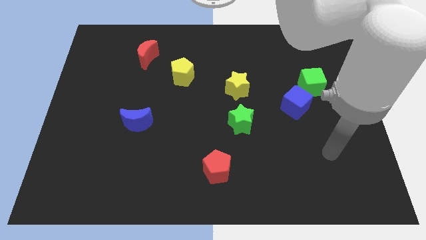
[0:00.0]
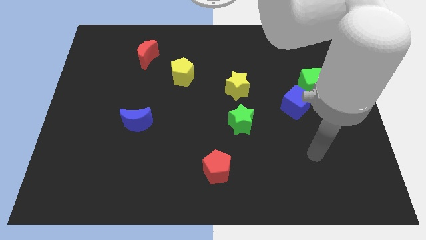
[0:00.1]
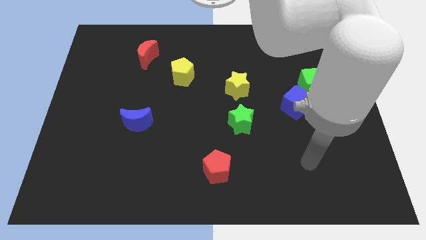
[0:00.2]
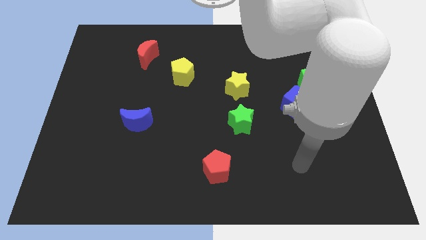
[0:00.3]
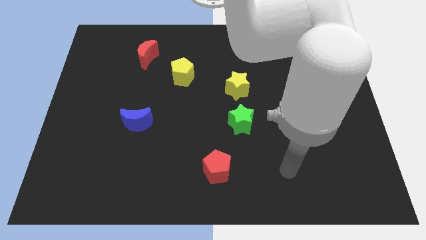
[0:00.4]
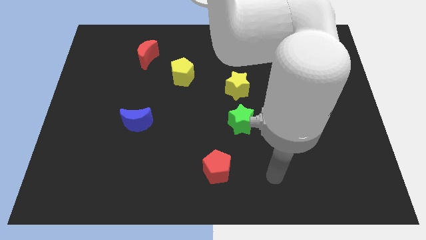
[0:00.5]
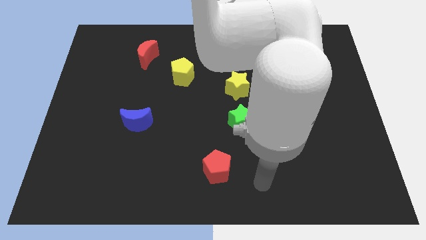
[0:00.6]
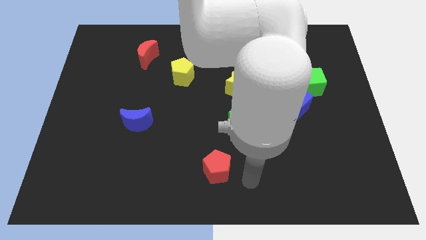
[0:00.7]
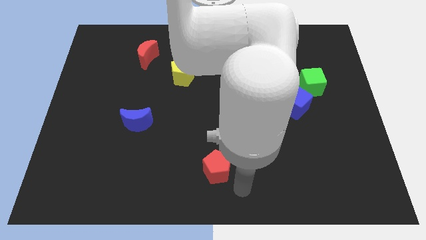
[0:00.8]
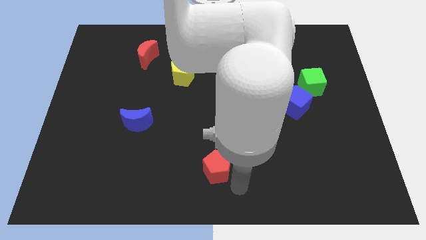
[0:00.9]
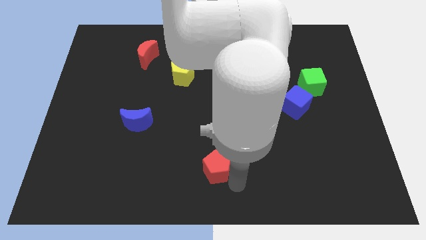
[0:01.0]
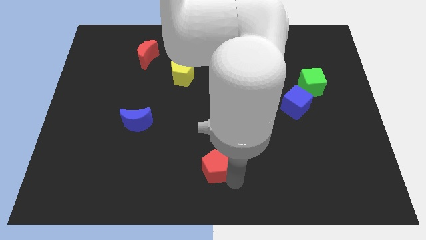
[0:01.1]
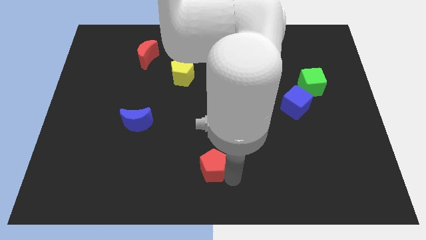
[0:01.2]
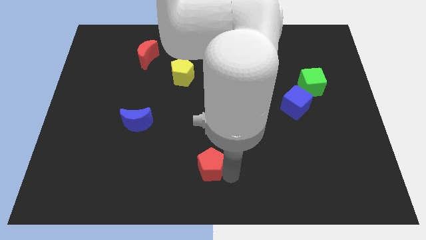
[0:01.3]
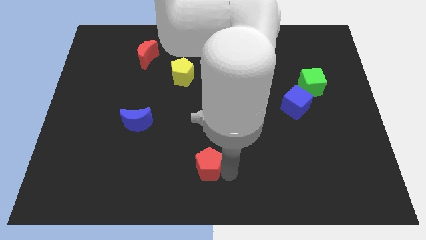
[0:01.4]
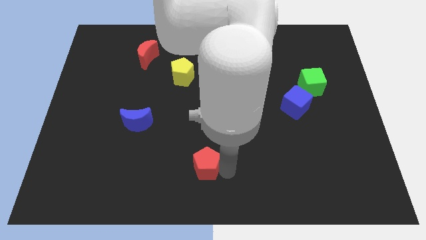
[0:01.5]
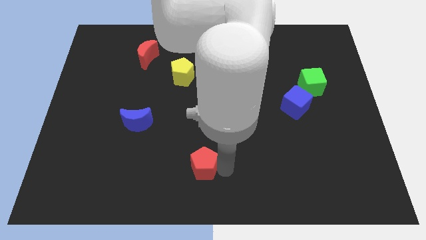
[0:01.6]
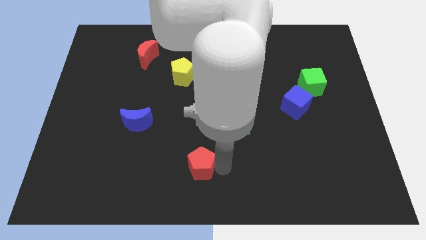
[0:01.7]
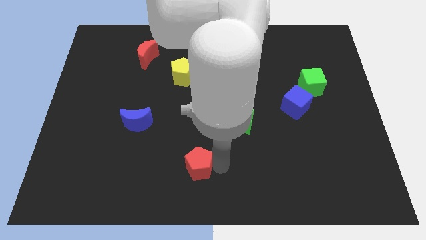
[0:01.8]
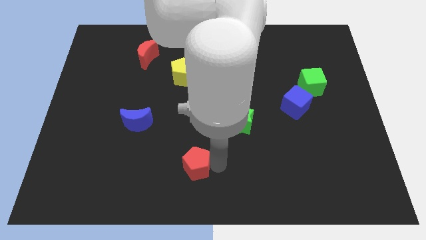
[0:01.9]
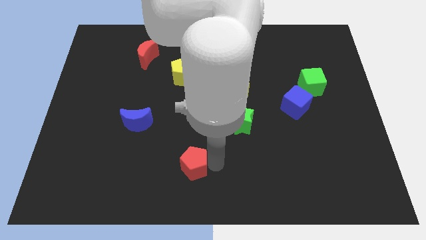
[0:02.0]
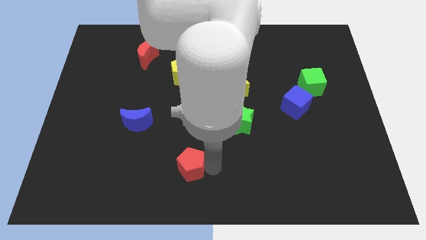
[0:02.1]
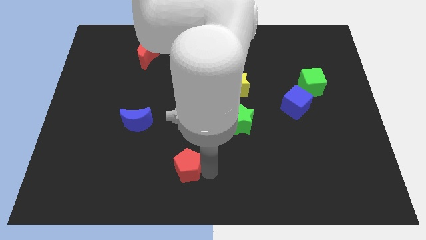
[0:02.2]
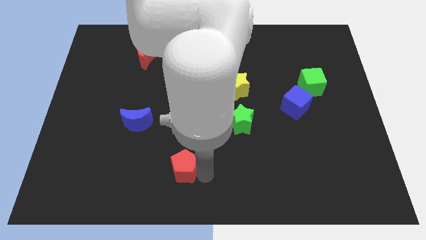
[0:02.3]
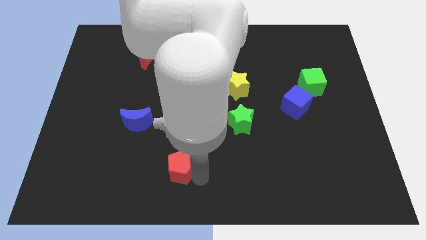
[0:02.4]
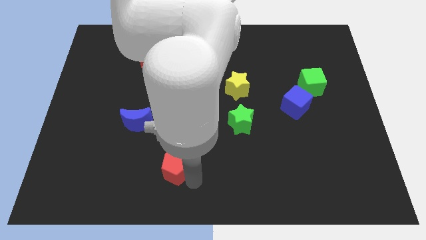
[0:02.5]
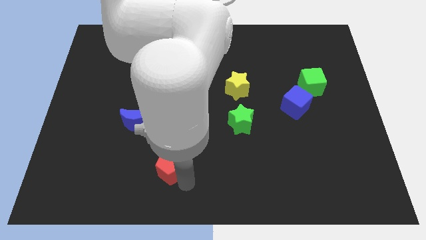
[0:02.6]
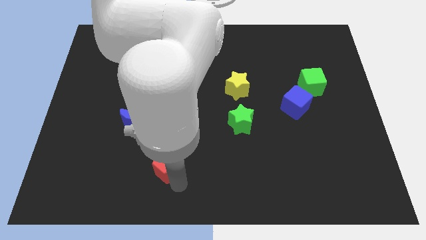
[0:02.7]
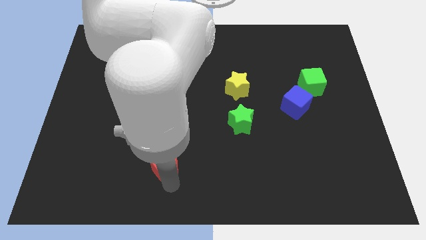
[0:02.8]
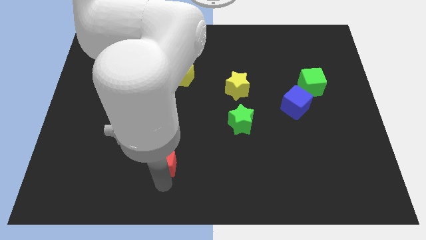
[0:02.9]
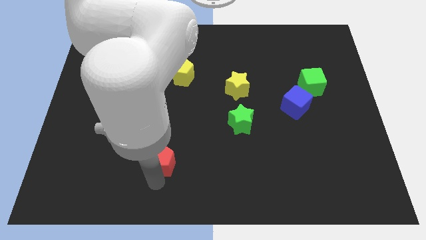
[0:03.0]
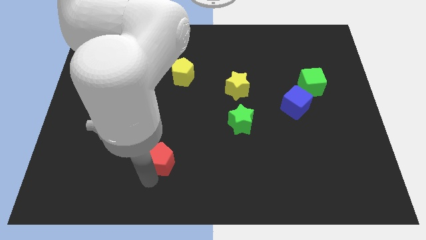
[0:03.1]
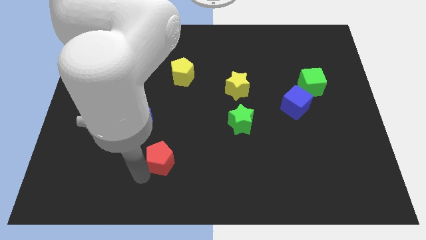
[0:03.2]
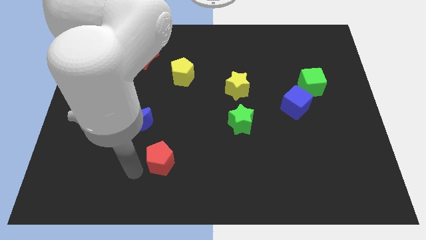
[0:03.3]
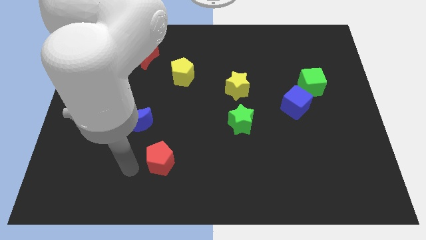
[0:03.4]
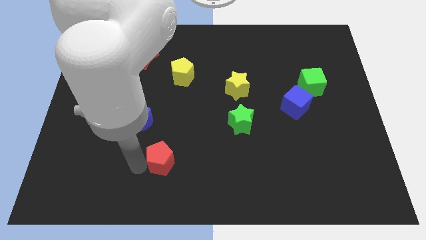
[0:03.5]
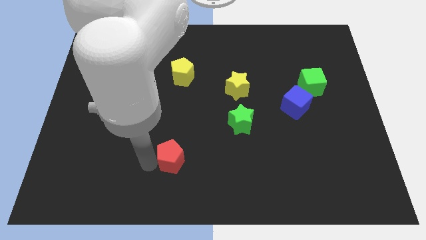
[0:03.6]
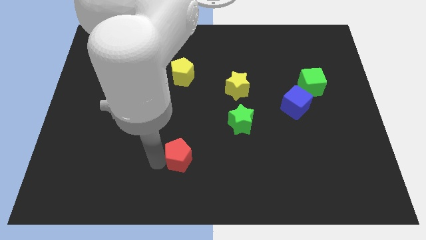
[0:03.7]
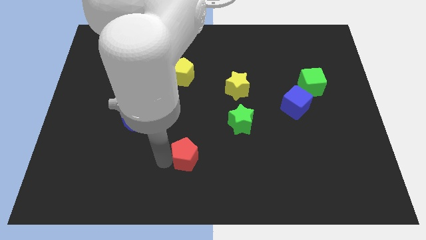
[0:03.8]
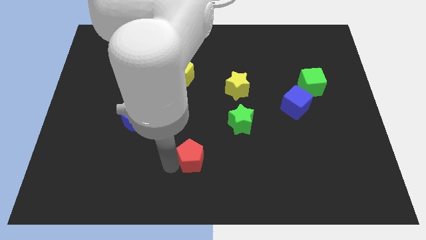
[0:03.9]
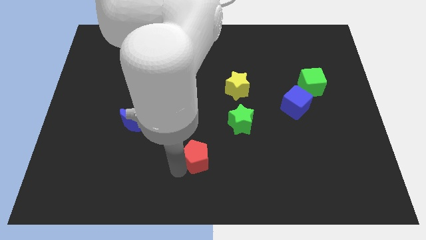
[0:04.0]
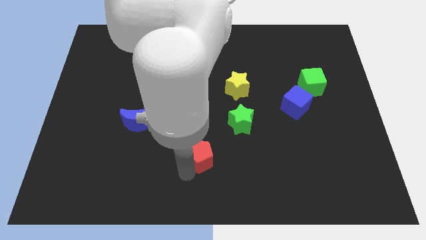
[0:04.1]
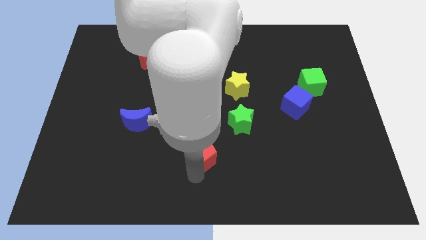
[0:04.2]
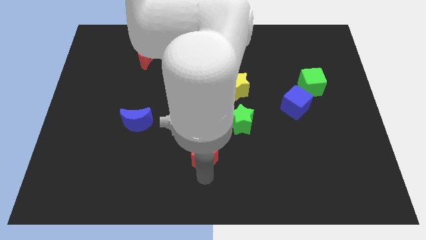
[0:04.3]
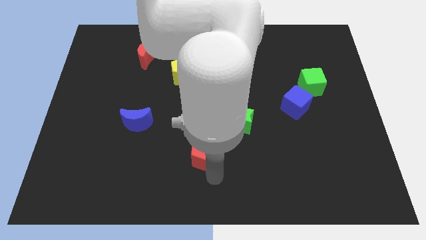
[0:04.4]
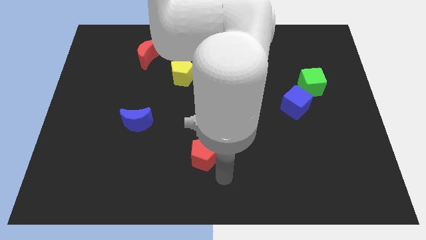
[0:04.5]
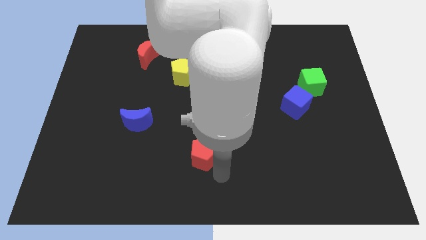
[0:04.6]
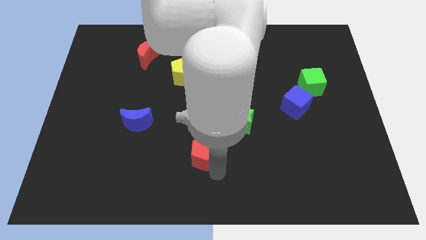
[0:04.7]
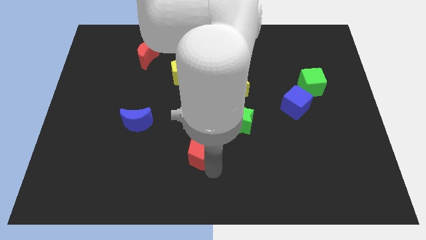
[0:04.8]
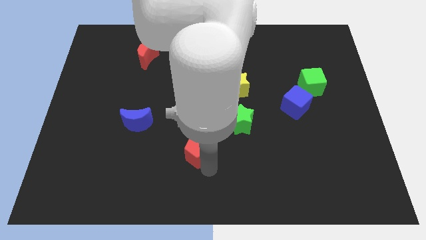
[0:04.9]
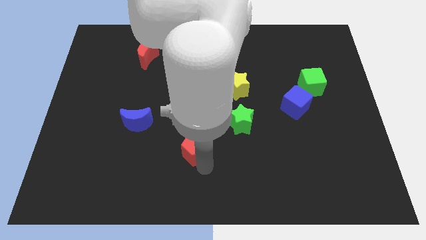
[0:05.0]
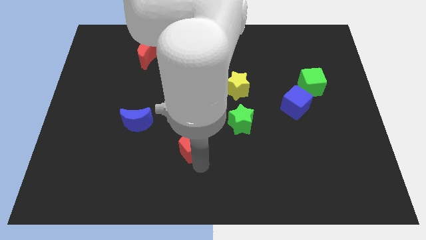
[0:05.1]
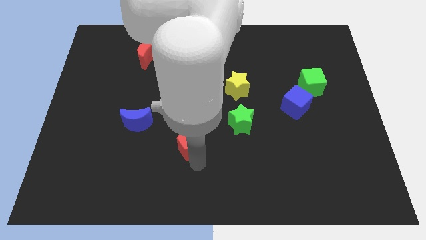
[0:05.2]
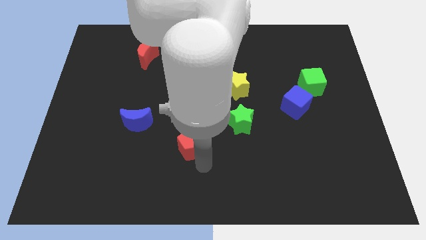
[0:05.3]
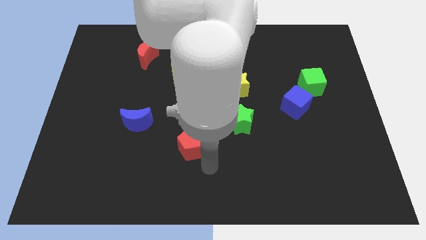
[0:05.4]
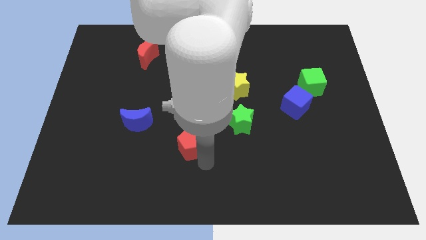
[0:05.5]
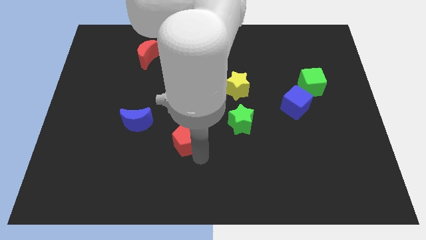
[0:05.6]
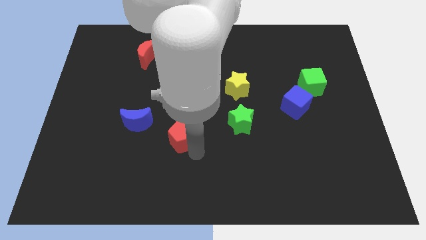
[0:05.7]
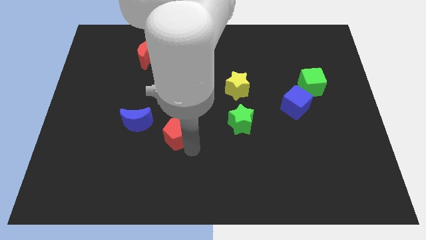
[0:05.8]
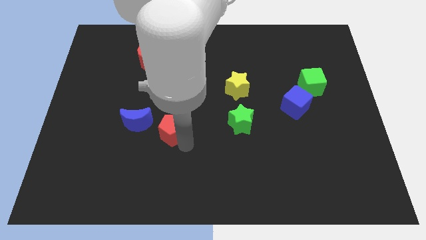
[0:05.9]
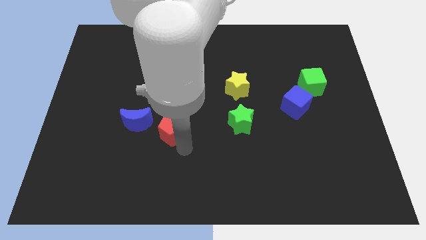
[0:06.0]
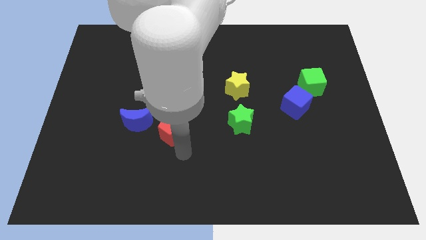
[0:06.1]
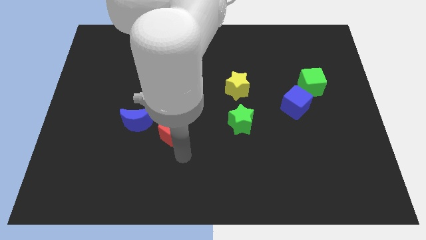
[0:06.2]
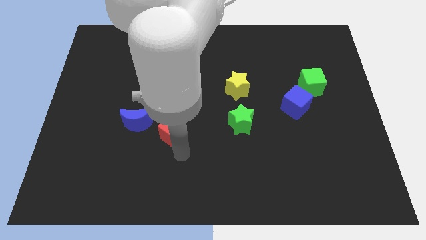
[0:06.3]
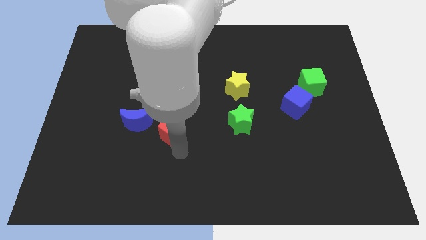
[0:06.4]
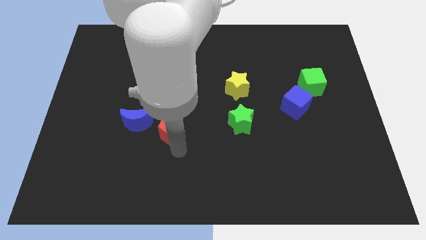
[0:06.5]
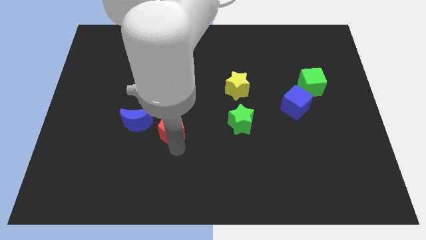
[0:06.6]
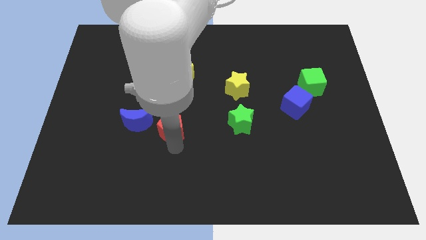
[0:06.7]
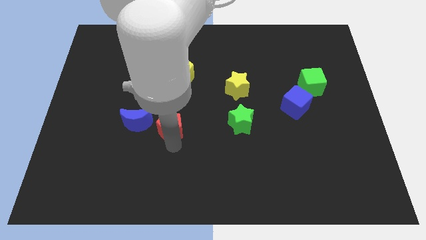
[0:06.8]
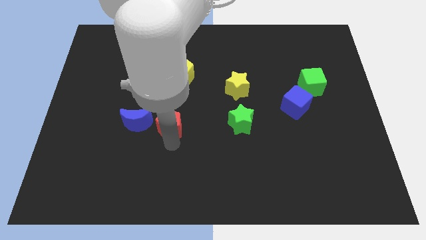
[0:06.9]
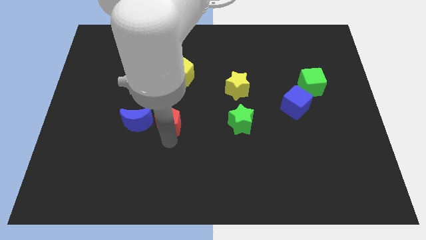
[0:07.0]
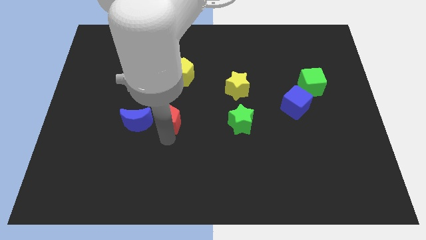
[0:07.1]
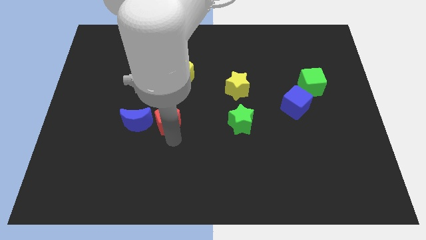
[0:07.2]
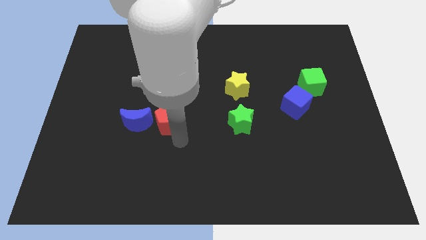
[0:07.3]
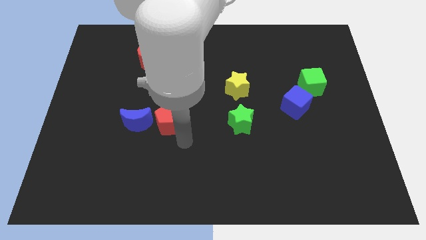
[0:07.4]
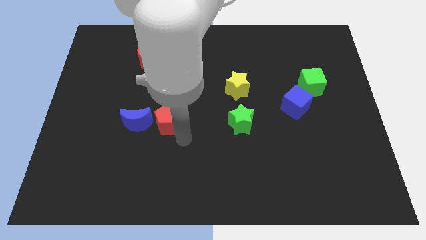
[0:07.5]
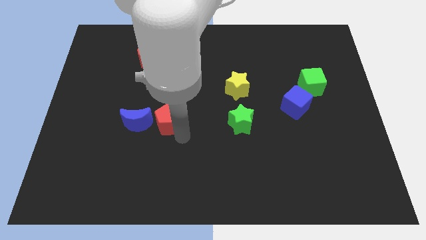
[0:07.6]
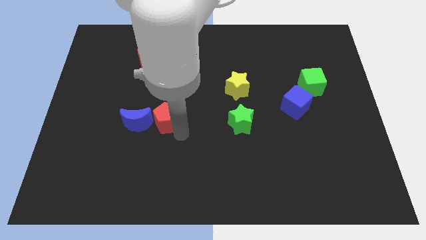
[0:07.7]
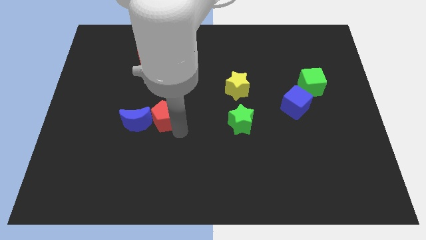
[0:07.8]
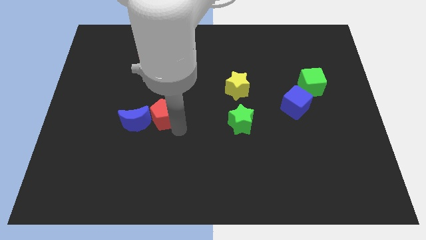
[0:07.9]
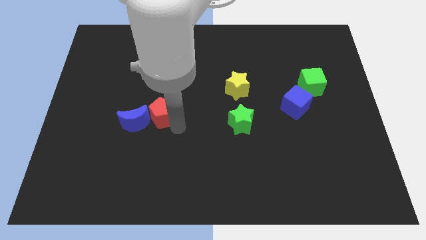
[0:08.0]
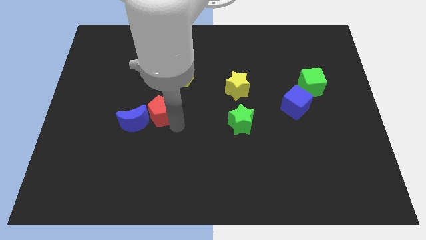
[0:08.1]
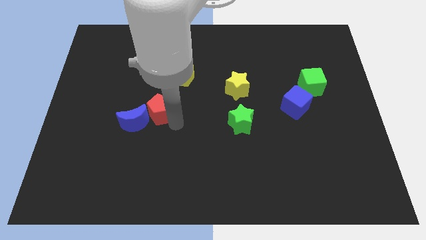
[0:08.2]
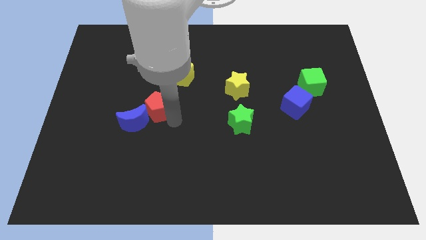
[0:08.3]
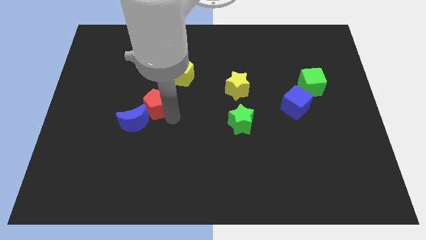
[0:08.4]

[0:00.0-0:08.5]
move the red pentagon to the top side of the blue moon
